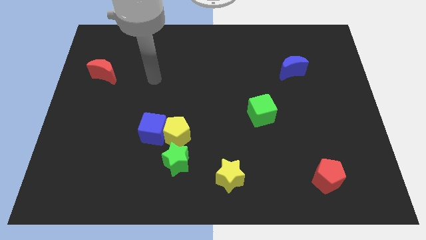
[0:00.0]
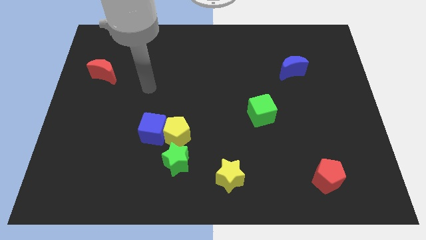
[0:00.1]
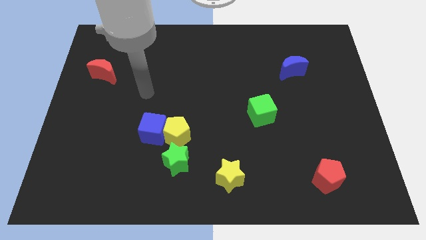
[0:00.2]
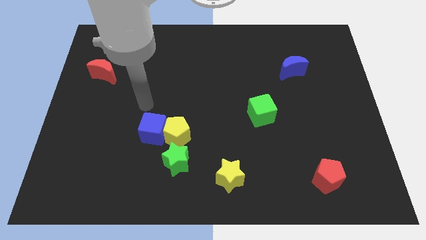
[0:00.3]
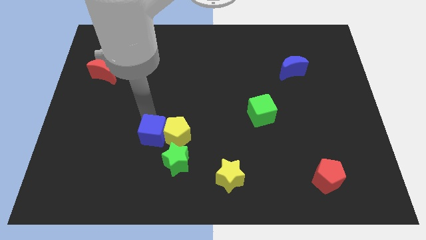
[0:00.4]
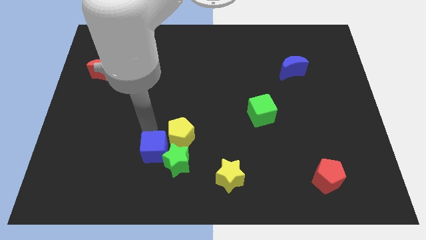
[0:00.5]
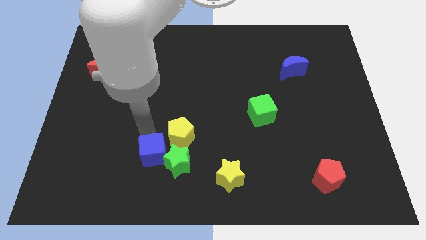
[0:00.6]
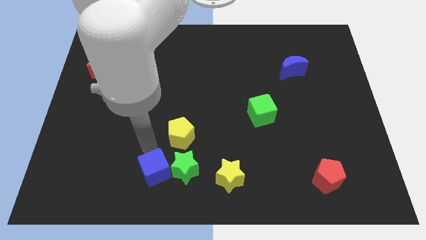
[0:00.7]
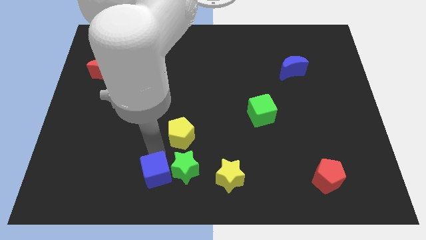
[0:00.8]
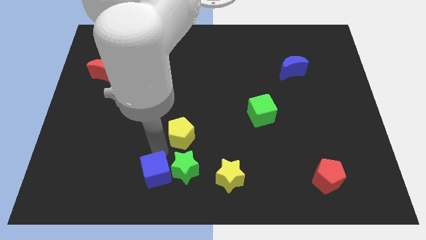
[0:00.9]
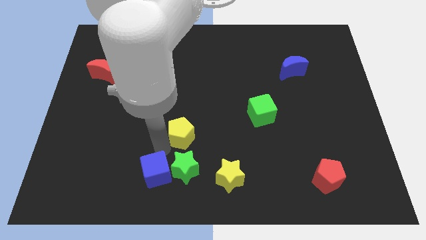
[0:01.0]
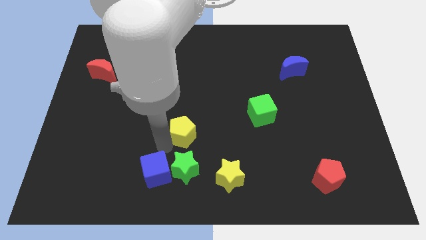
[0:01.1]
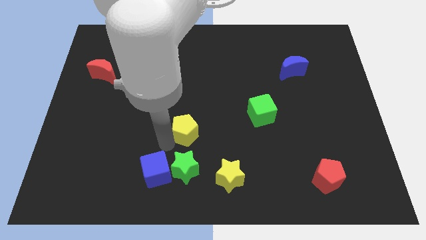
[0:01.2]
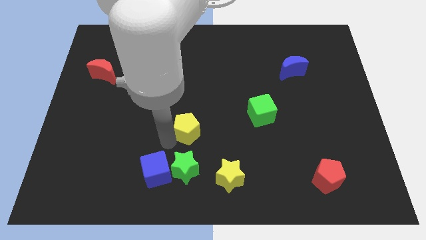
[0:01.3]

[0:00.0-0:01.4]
move the yellow pentagon away from the blue cube and green star

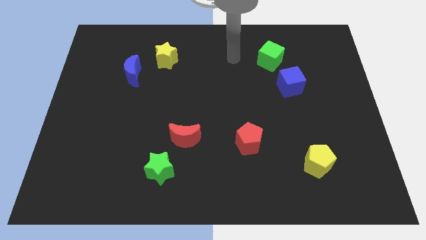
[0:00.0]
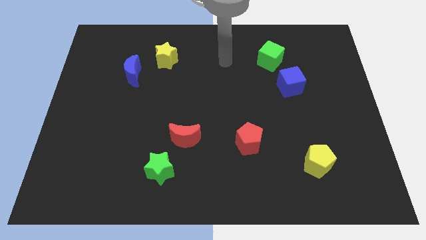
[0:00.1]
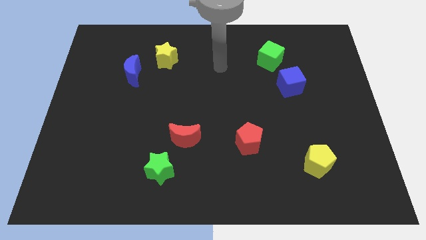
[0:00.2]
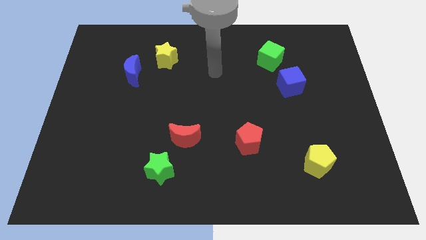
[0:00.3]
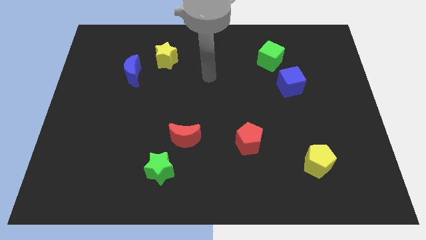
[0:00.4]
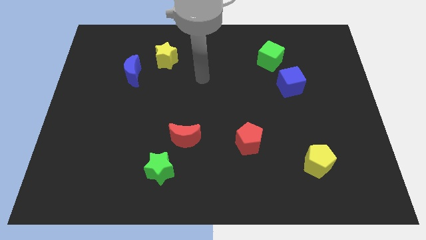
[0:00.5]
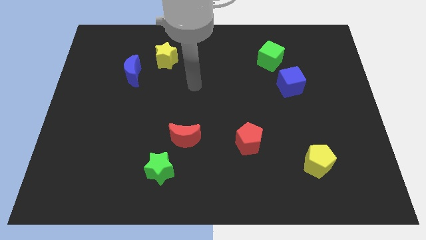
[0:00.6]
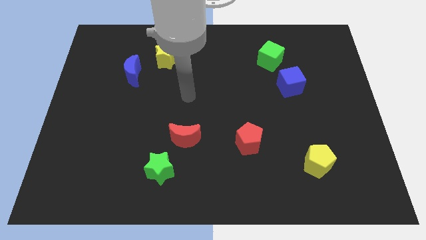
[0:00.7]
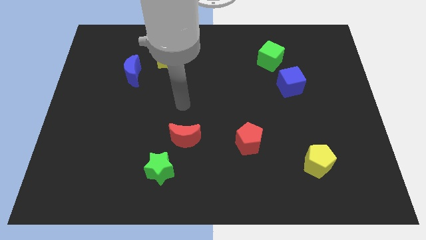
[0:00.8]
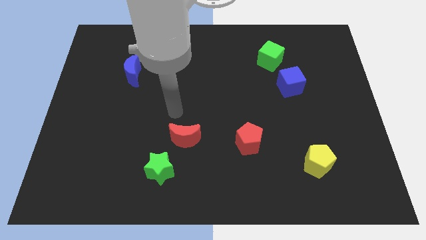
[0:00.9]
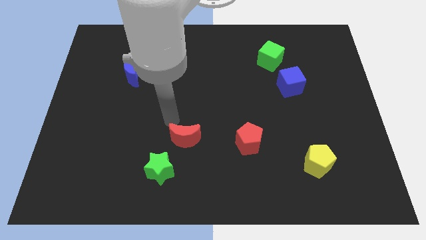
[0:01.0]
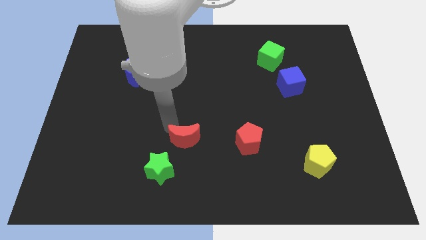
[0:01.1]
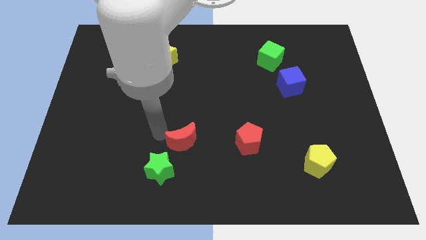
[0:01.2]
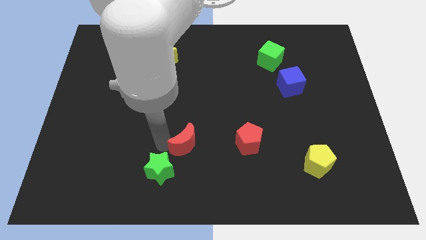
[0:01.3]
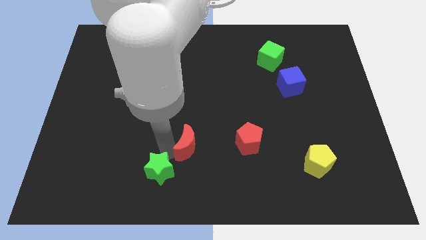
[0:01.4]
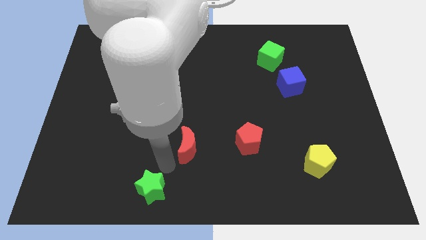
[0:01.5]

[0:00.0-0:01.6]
separate the red moon from the green star

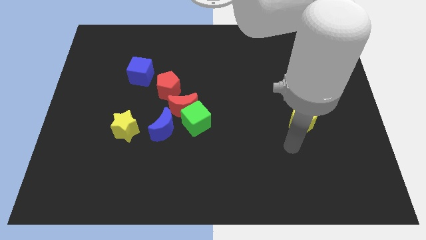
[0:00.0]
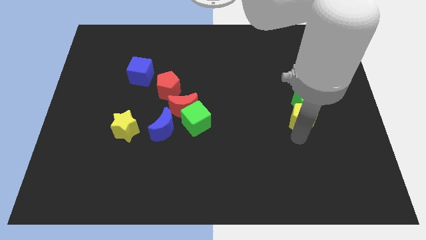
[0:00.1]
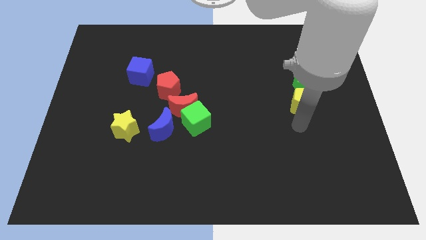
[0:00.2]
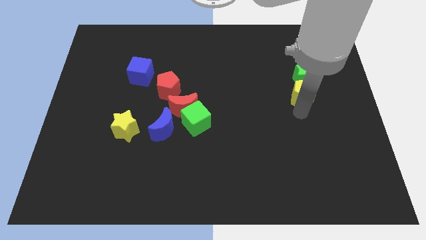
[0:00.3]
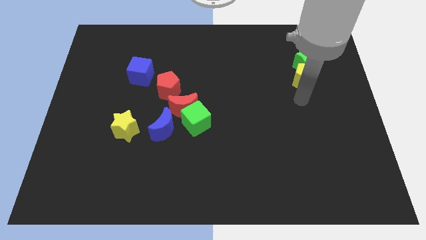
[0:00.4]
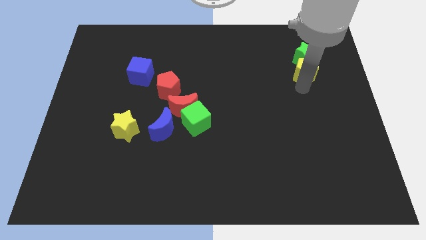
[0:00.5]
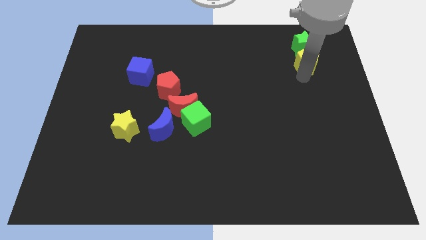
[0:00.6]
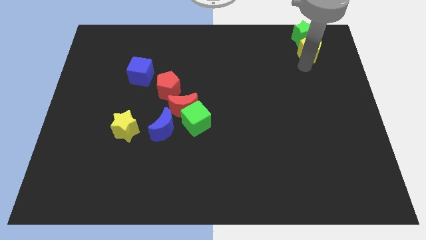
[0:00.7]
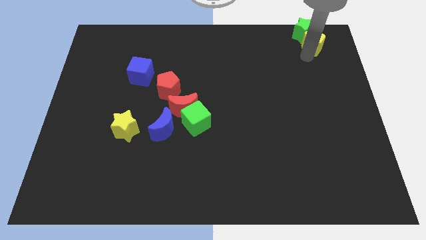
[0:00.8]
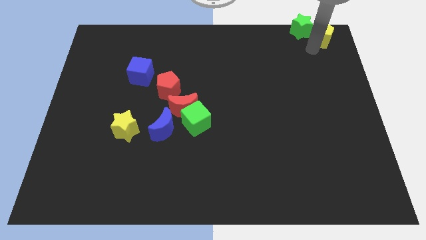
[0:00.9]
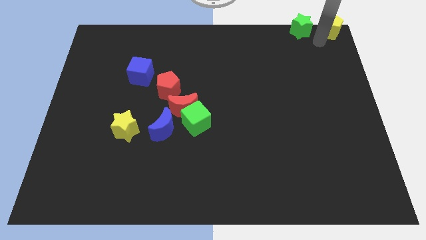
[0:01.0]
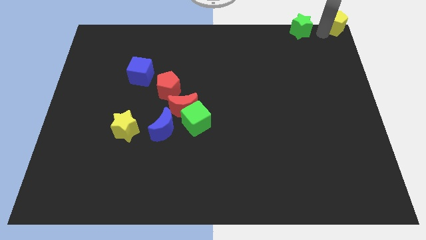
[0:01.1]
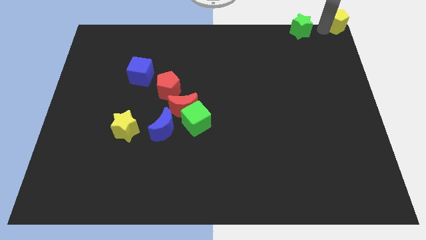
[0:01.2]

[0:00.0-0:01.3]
move the green star away from the yellow pentagon

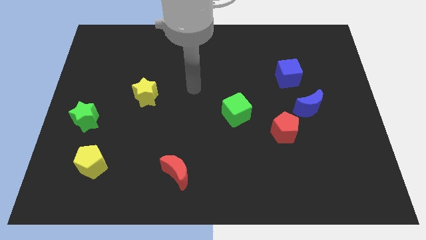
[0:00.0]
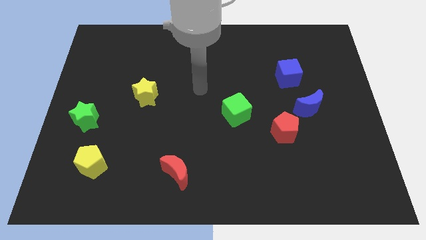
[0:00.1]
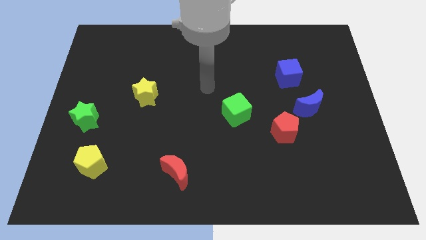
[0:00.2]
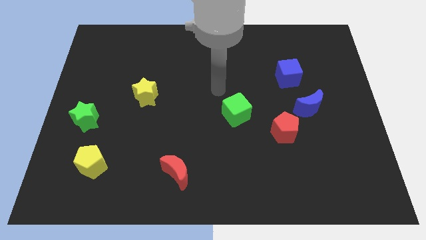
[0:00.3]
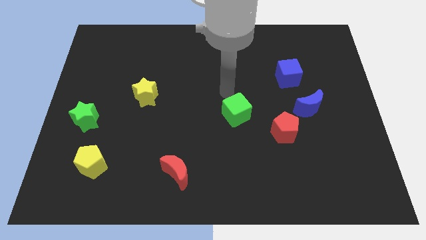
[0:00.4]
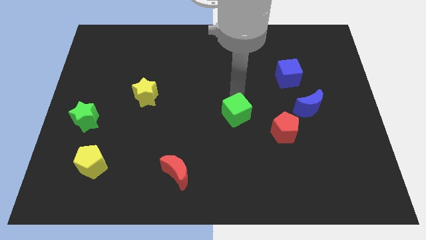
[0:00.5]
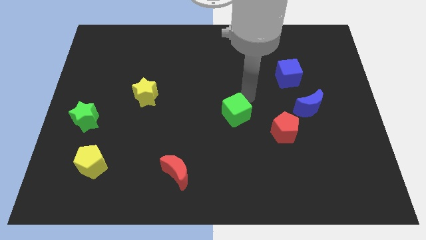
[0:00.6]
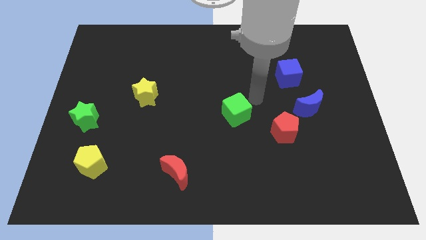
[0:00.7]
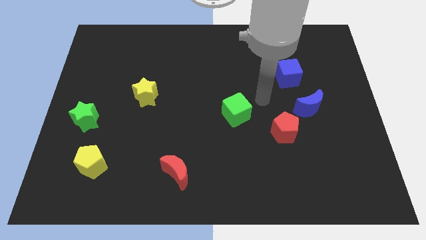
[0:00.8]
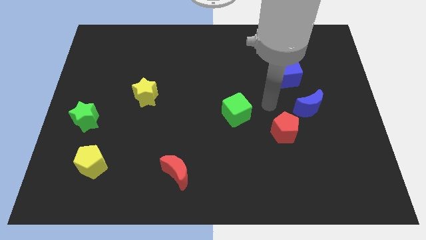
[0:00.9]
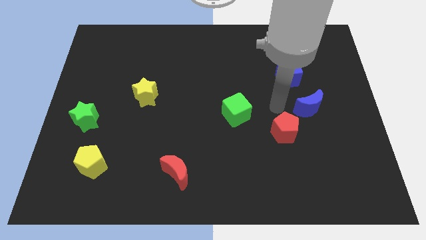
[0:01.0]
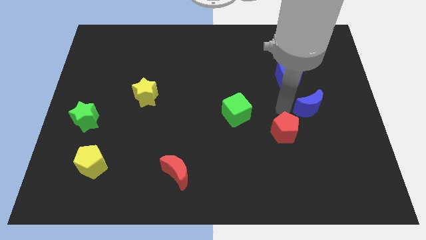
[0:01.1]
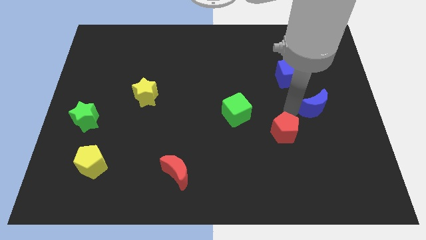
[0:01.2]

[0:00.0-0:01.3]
separate the red pentagon from the blue moon

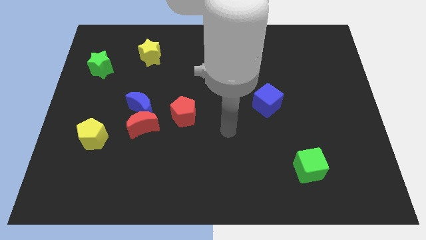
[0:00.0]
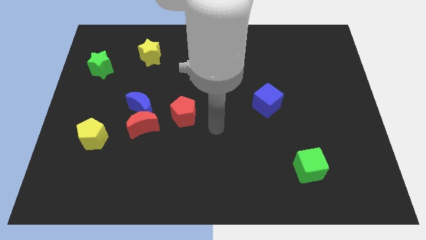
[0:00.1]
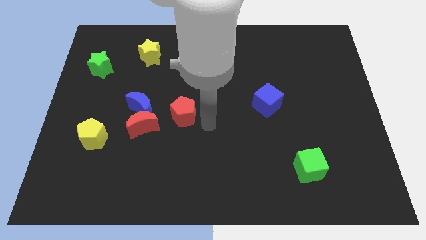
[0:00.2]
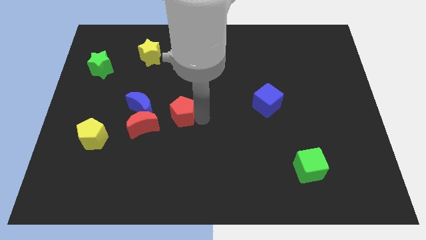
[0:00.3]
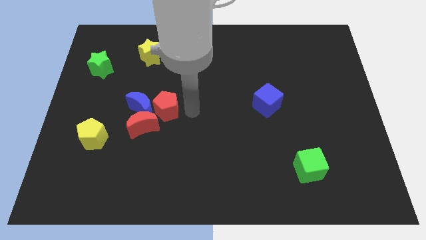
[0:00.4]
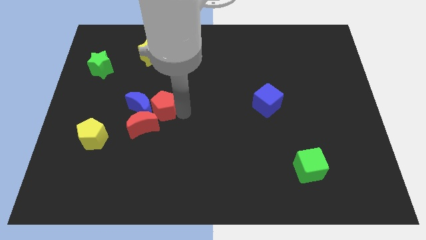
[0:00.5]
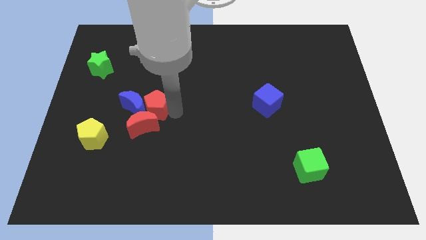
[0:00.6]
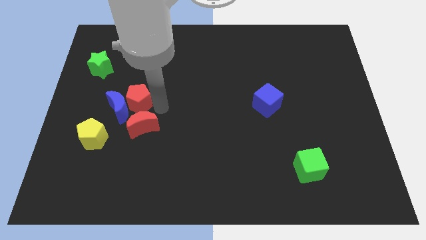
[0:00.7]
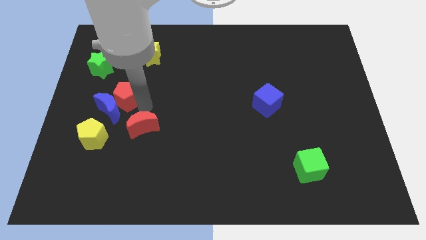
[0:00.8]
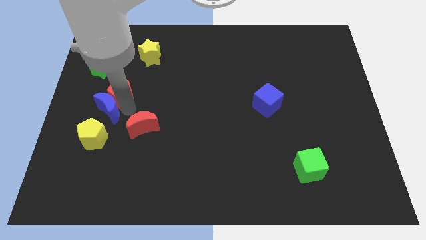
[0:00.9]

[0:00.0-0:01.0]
separate the red moon from the blue moon and red pentagon

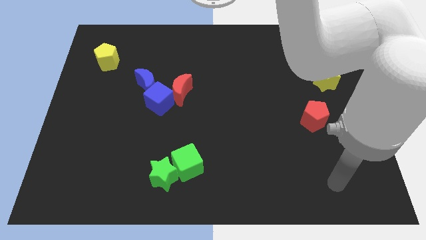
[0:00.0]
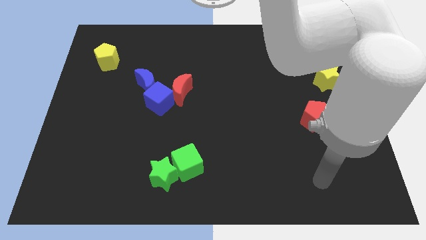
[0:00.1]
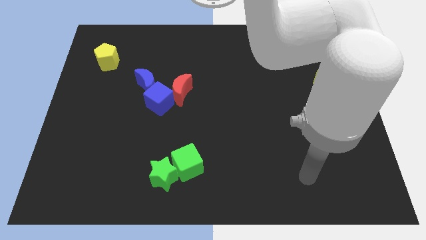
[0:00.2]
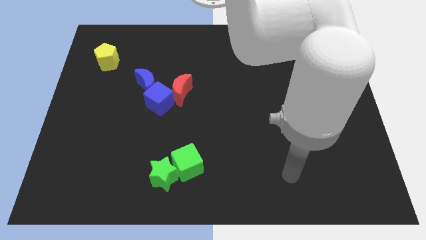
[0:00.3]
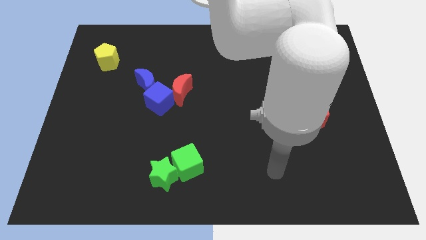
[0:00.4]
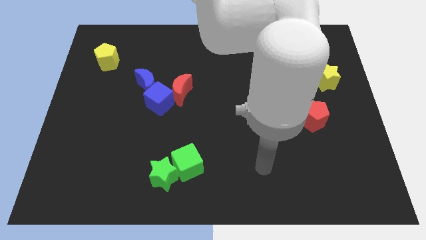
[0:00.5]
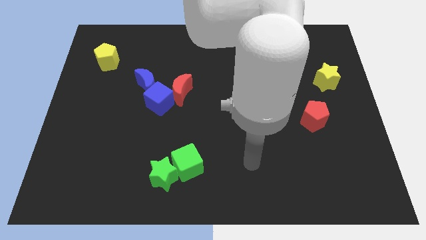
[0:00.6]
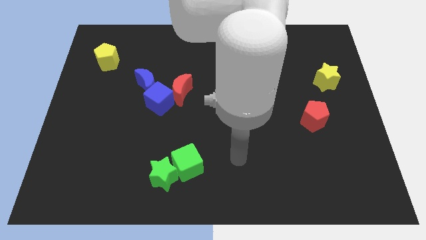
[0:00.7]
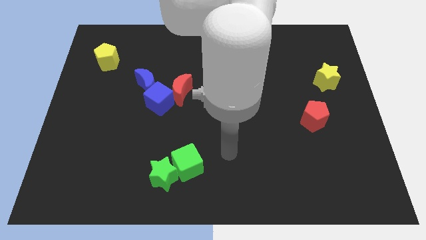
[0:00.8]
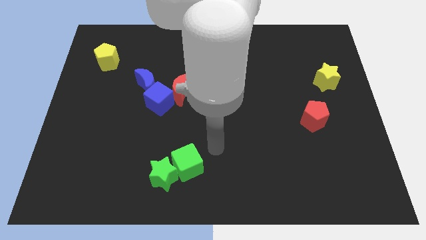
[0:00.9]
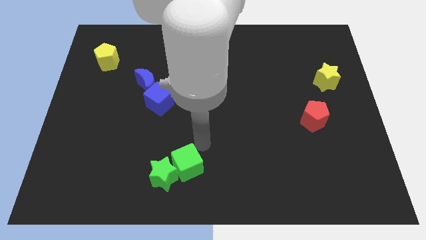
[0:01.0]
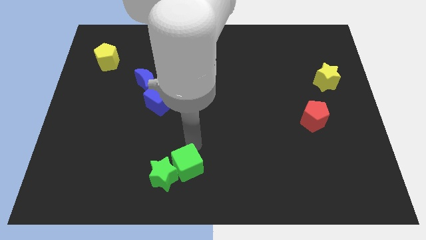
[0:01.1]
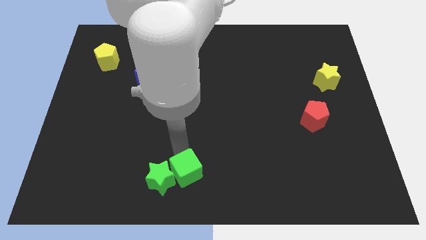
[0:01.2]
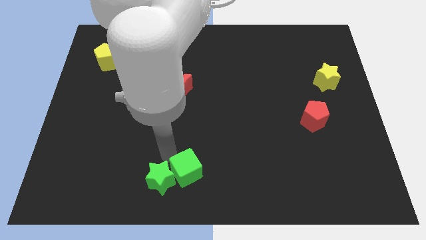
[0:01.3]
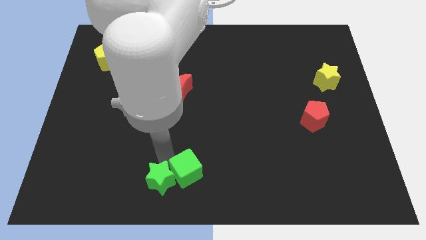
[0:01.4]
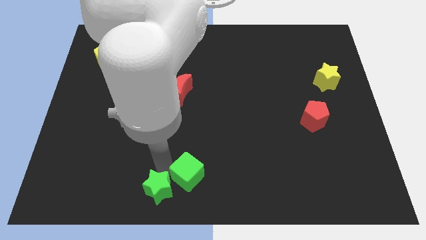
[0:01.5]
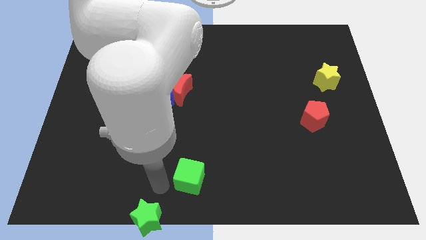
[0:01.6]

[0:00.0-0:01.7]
move the green cube away from the green star

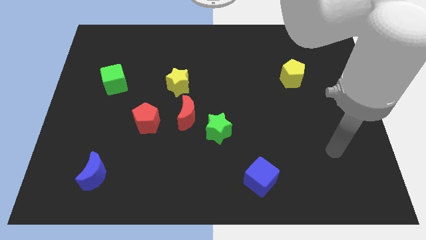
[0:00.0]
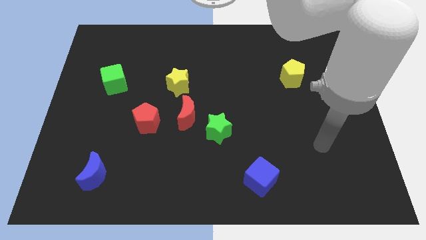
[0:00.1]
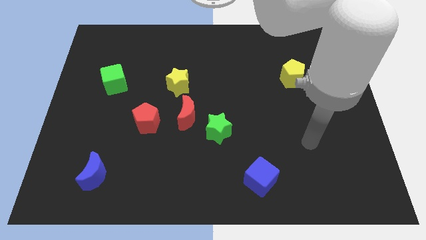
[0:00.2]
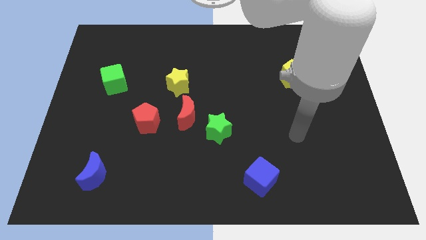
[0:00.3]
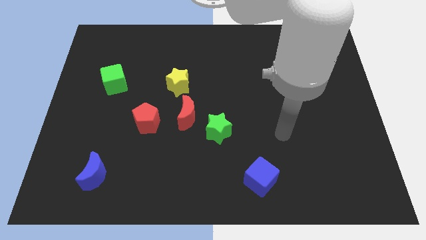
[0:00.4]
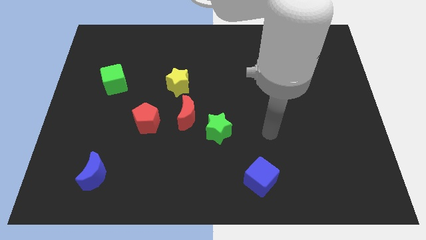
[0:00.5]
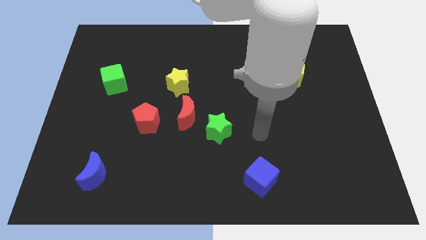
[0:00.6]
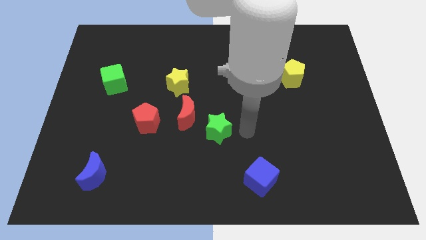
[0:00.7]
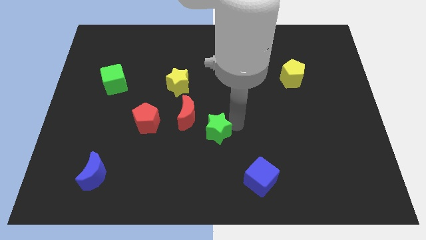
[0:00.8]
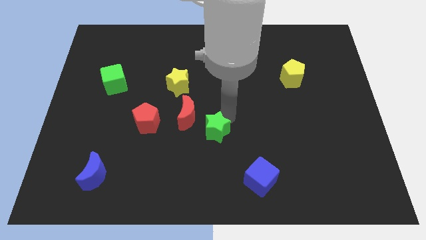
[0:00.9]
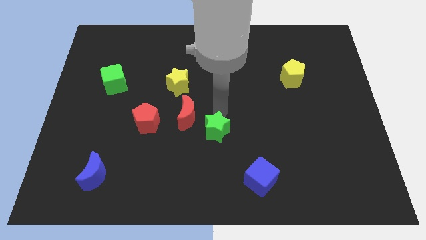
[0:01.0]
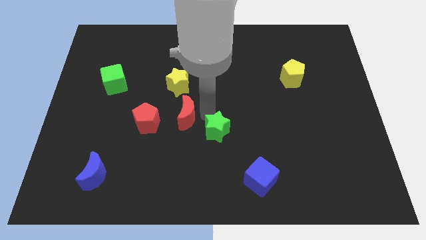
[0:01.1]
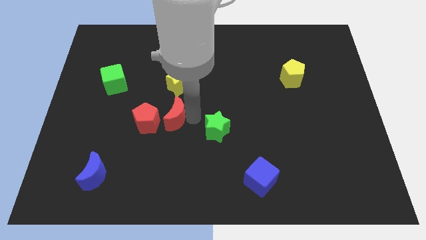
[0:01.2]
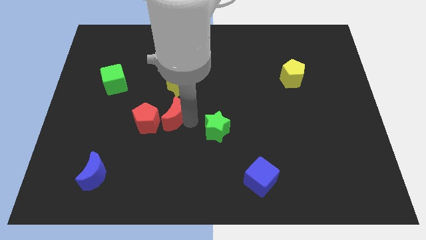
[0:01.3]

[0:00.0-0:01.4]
move the green star away from the red moon
